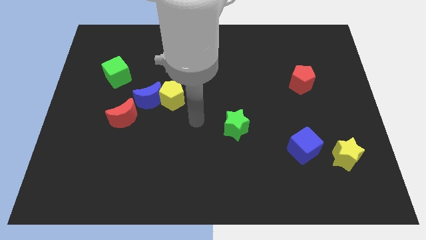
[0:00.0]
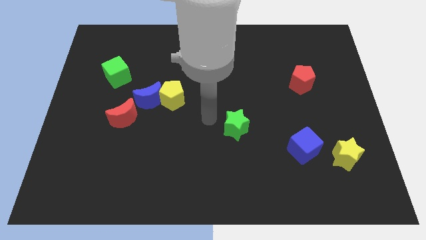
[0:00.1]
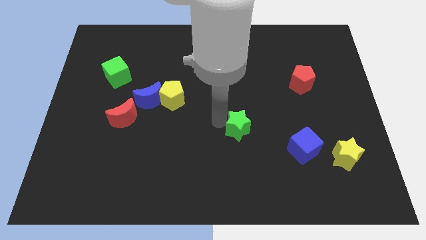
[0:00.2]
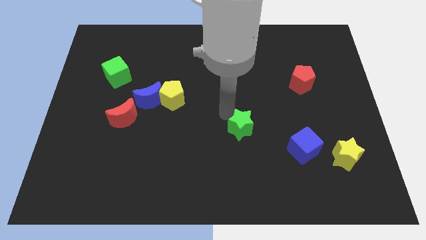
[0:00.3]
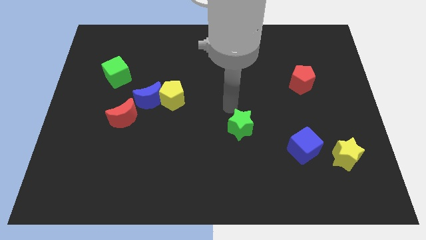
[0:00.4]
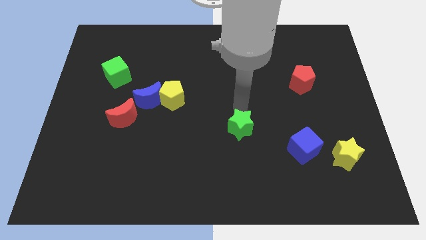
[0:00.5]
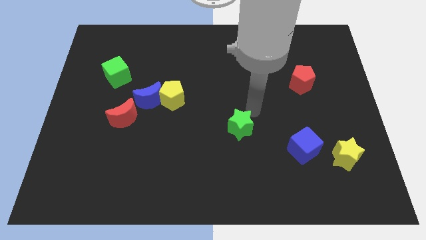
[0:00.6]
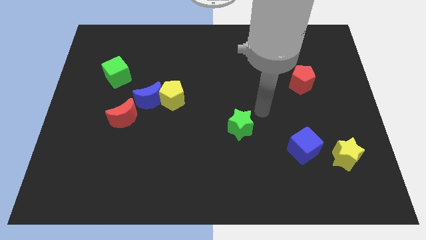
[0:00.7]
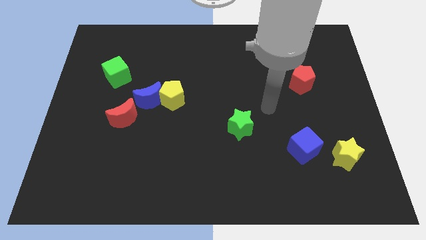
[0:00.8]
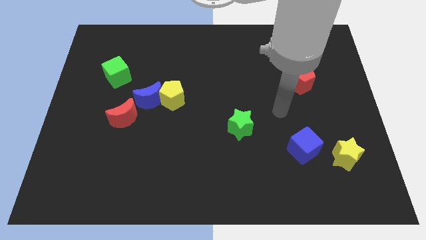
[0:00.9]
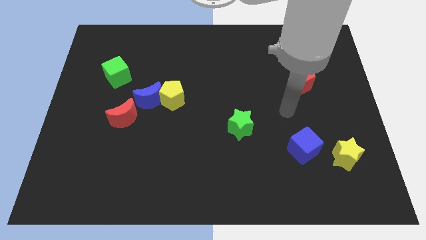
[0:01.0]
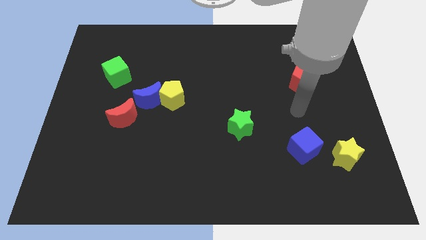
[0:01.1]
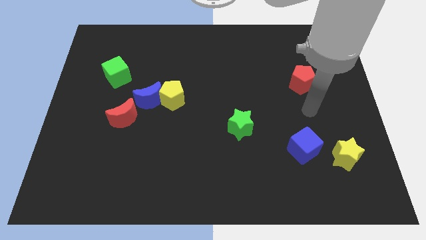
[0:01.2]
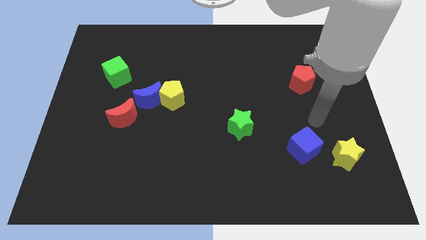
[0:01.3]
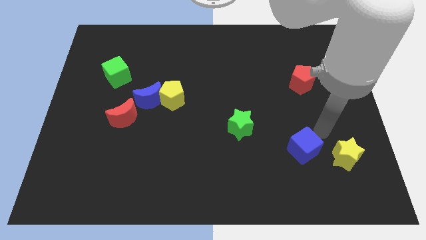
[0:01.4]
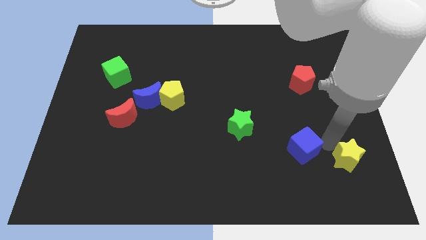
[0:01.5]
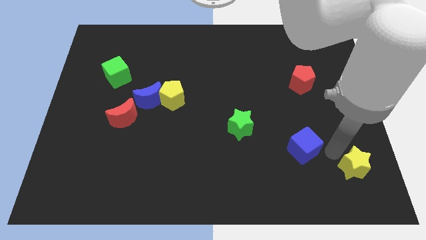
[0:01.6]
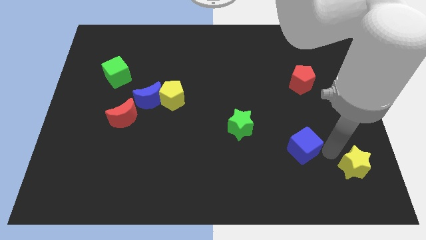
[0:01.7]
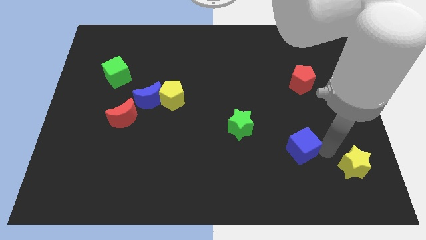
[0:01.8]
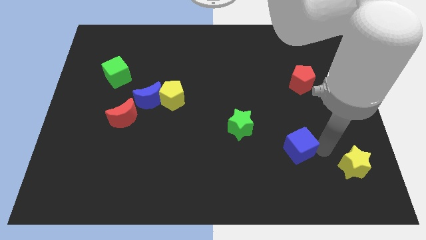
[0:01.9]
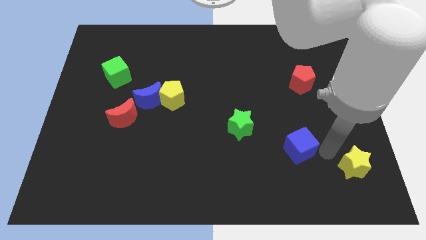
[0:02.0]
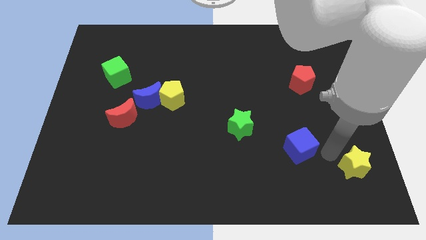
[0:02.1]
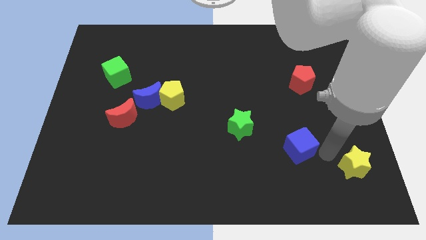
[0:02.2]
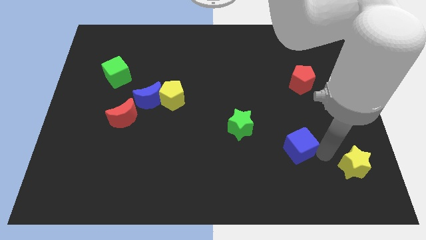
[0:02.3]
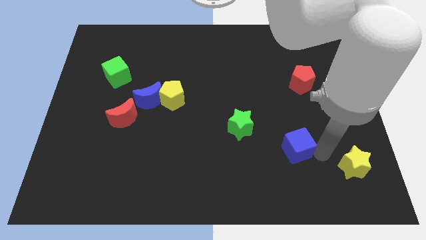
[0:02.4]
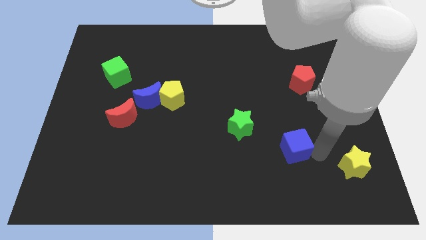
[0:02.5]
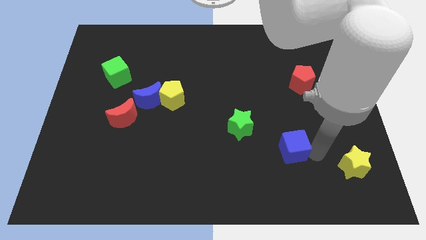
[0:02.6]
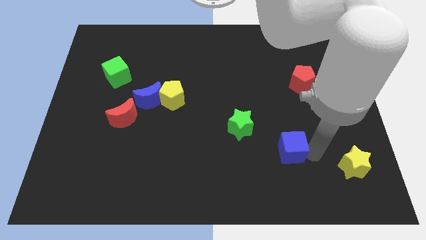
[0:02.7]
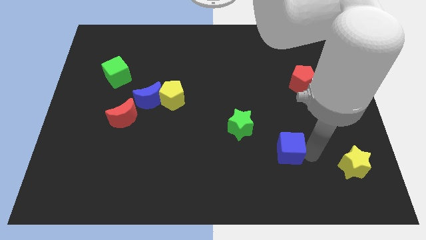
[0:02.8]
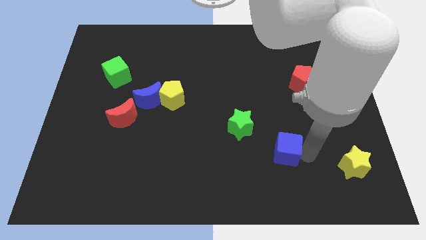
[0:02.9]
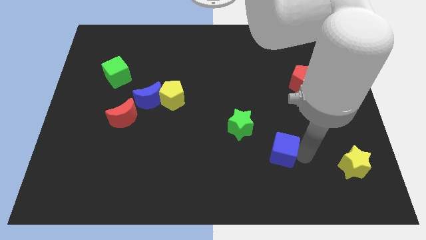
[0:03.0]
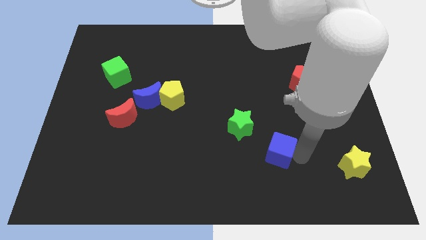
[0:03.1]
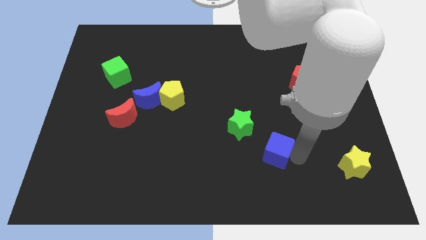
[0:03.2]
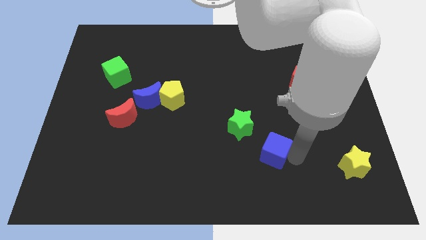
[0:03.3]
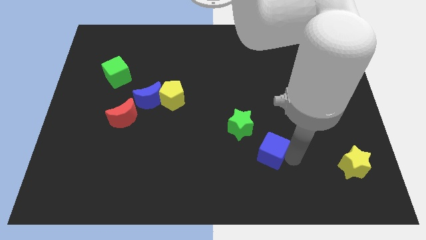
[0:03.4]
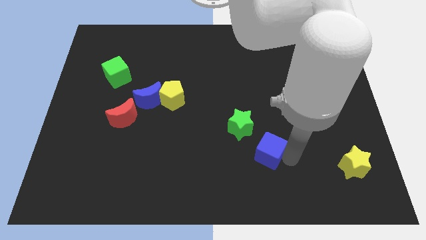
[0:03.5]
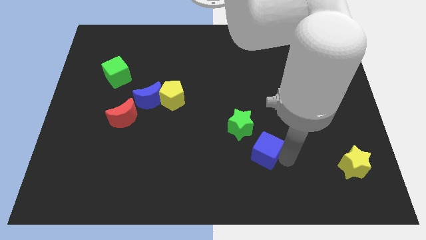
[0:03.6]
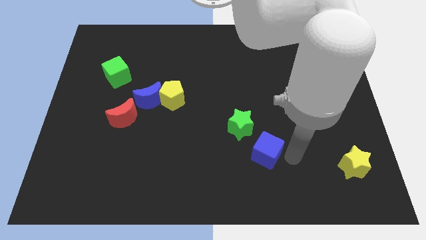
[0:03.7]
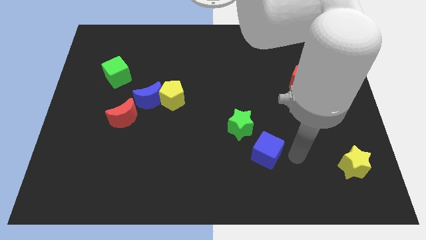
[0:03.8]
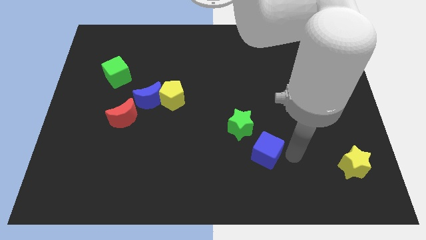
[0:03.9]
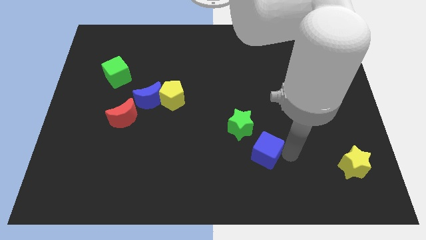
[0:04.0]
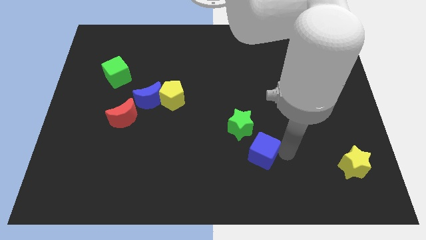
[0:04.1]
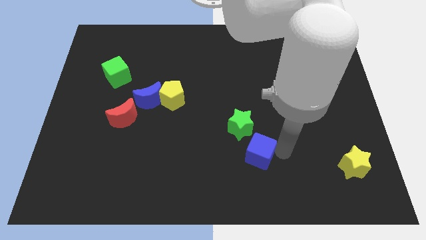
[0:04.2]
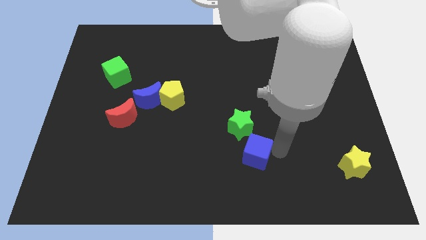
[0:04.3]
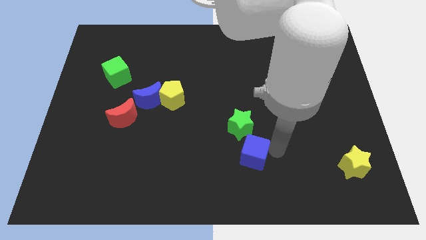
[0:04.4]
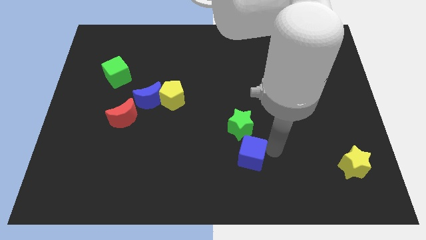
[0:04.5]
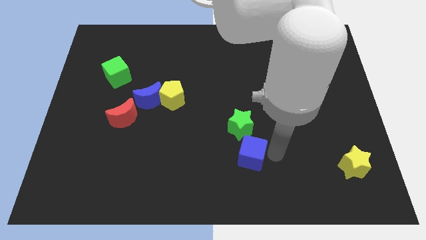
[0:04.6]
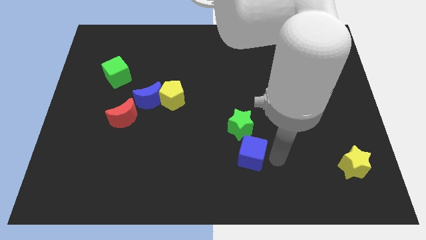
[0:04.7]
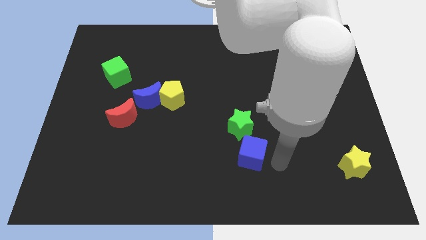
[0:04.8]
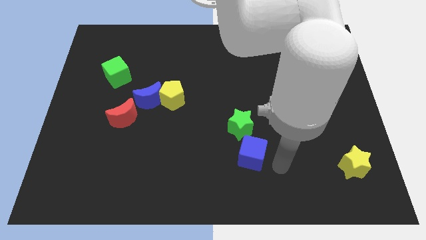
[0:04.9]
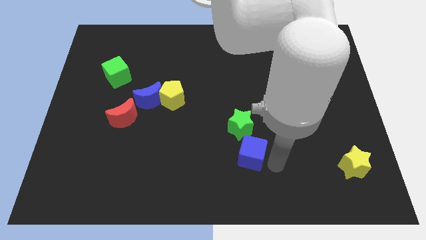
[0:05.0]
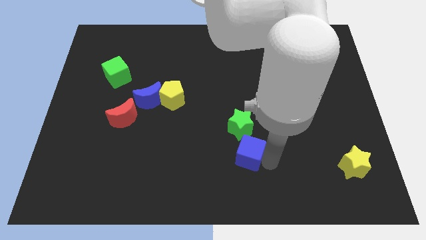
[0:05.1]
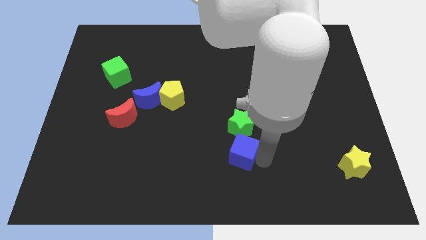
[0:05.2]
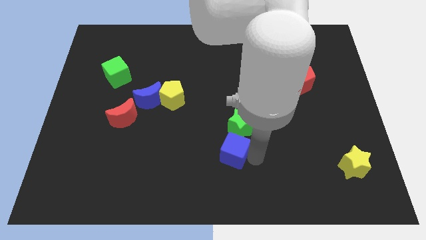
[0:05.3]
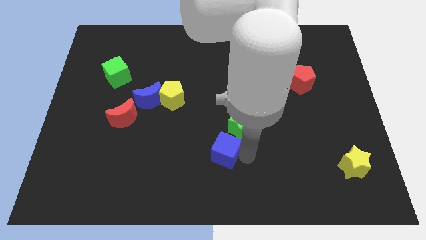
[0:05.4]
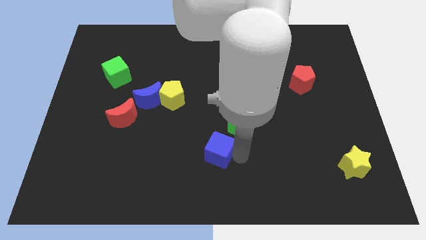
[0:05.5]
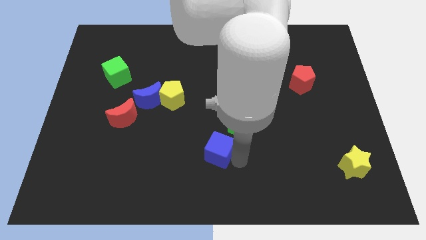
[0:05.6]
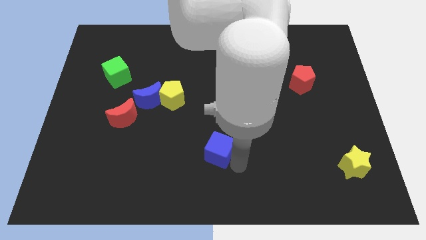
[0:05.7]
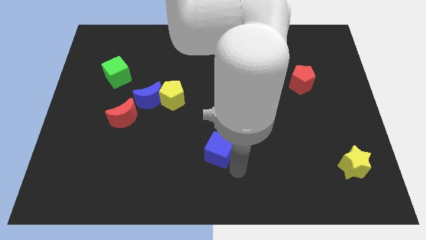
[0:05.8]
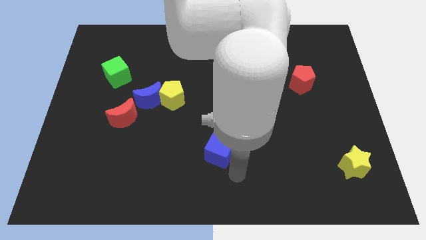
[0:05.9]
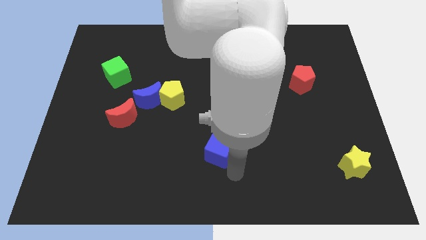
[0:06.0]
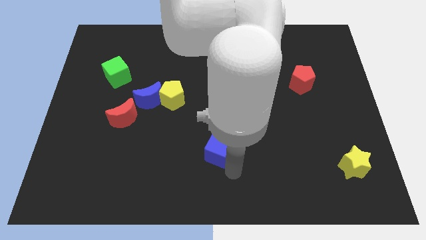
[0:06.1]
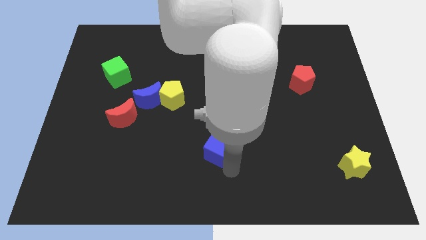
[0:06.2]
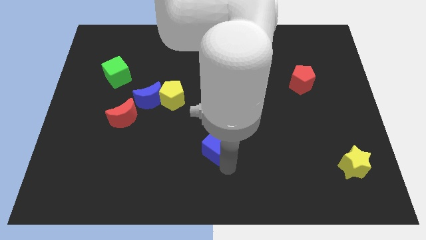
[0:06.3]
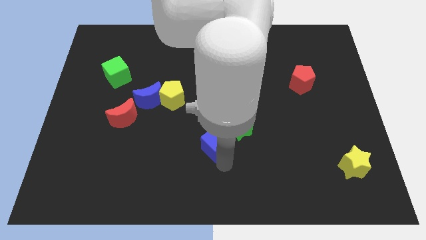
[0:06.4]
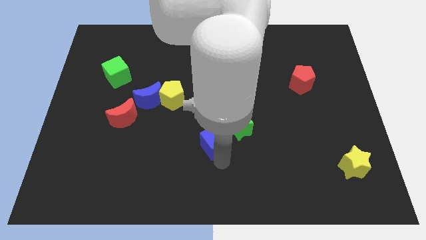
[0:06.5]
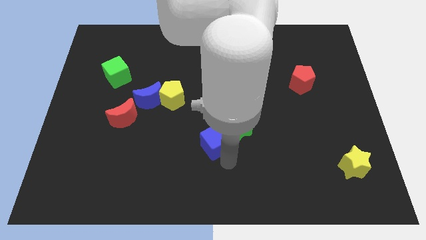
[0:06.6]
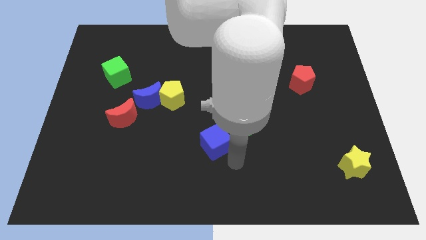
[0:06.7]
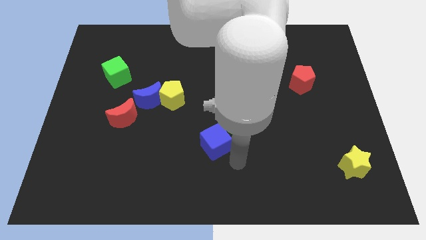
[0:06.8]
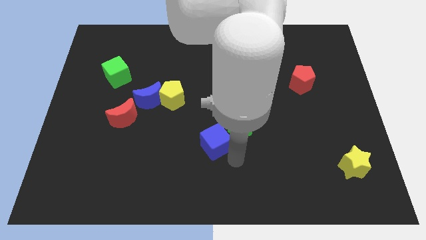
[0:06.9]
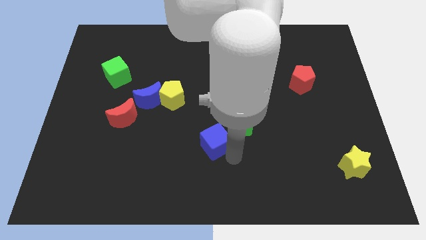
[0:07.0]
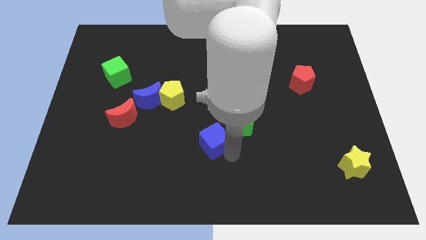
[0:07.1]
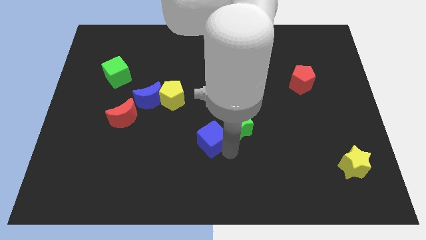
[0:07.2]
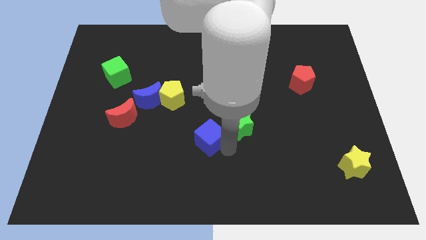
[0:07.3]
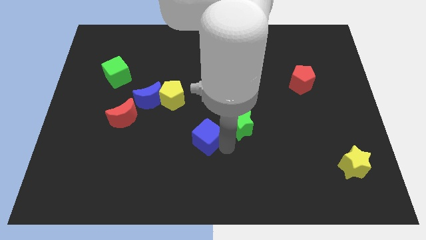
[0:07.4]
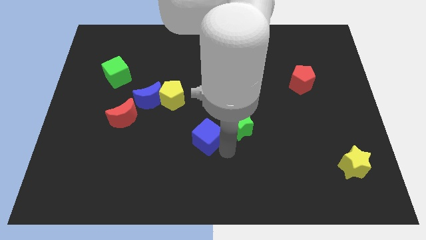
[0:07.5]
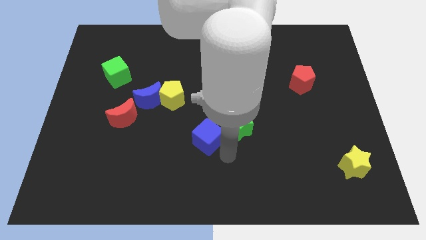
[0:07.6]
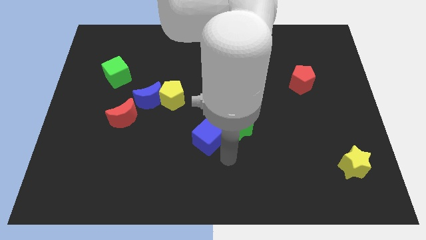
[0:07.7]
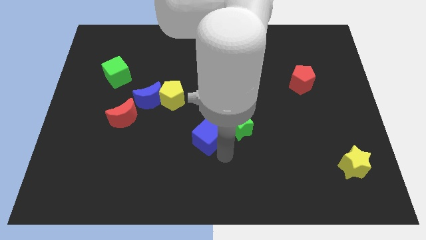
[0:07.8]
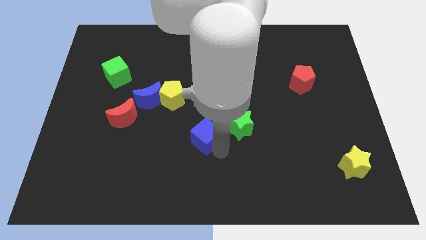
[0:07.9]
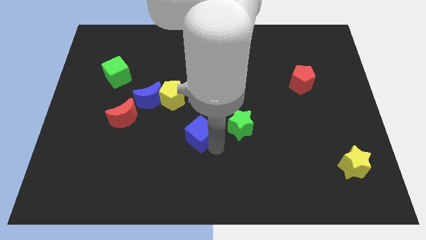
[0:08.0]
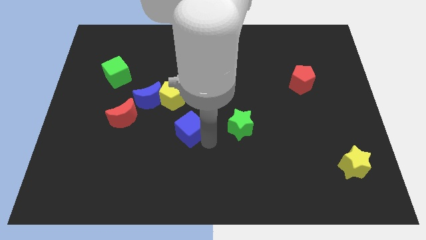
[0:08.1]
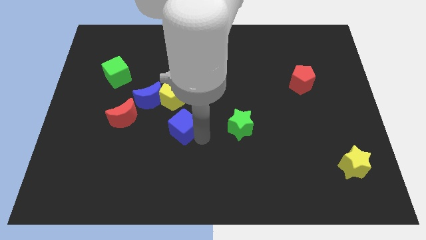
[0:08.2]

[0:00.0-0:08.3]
push the blue cube right of the red moon

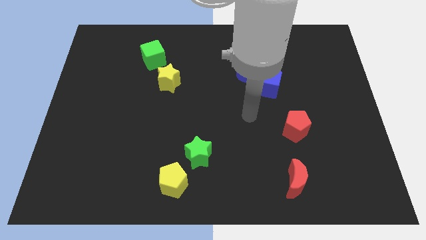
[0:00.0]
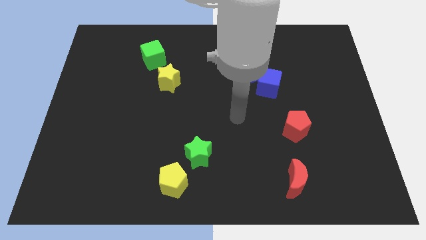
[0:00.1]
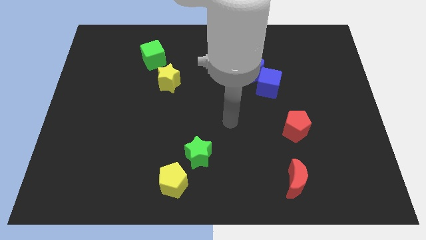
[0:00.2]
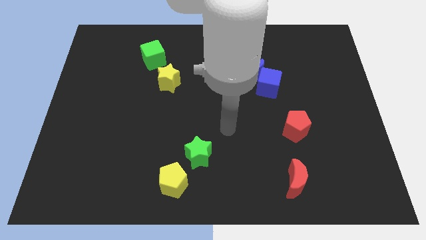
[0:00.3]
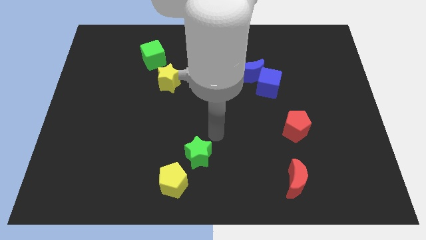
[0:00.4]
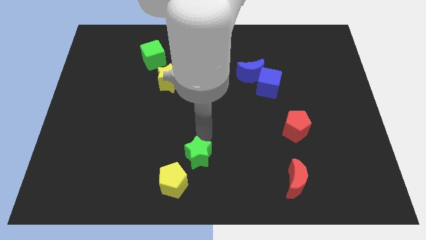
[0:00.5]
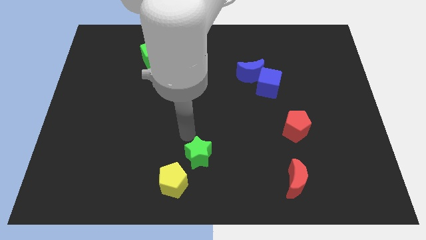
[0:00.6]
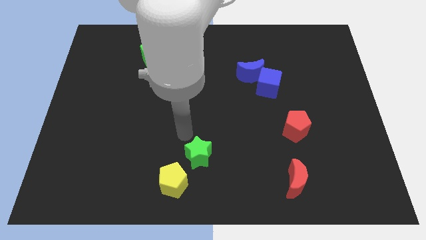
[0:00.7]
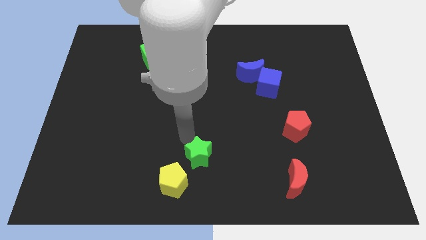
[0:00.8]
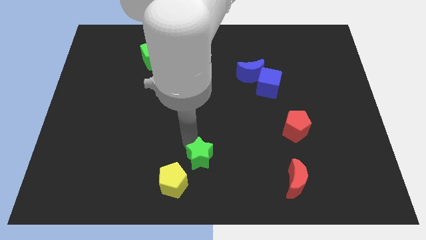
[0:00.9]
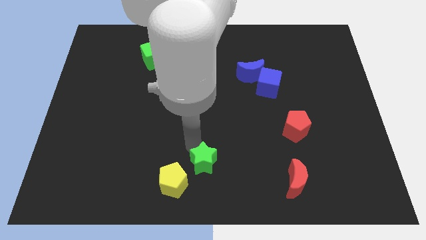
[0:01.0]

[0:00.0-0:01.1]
push the green star just right of the yellow pentagon
